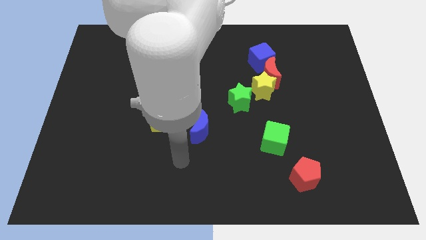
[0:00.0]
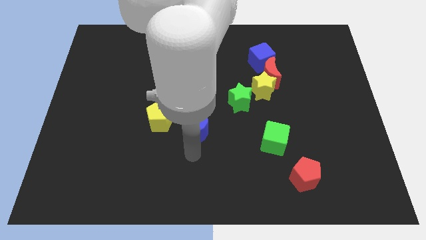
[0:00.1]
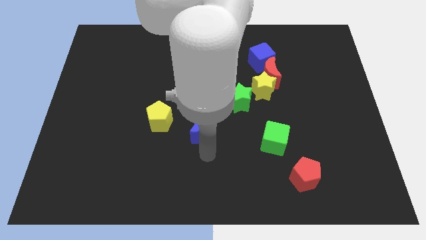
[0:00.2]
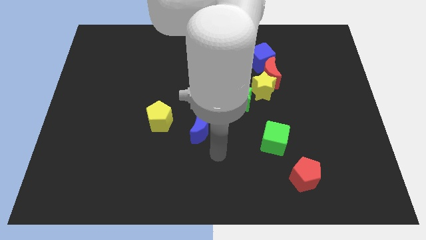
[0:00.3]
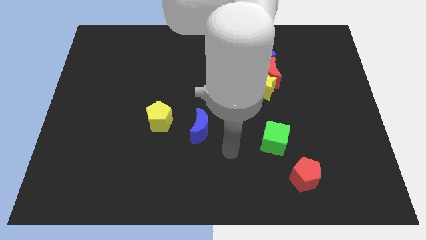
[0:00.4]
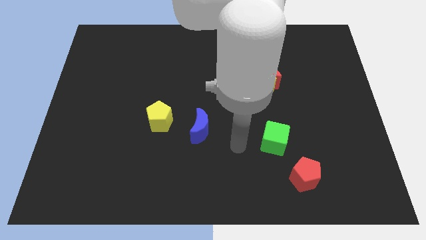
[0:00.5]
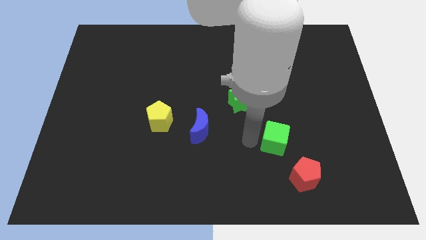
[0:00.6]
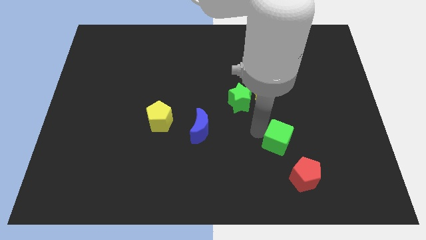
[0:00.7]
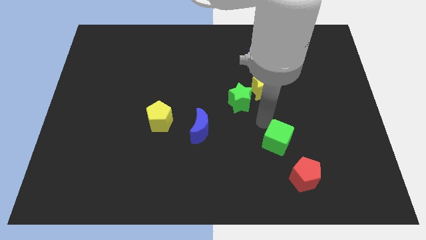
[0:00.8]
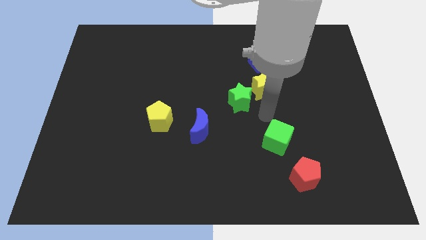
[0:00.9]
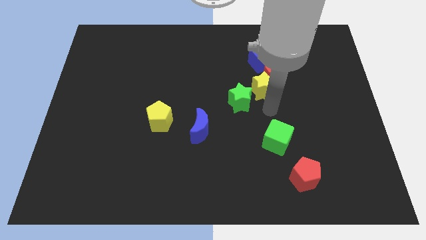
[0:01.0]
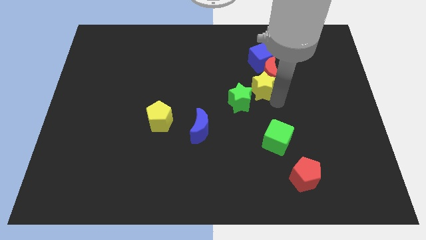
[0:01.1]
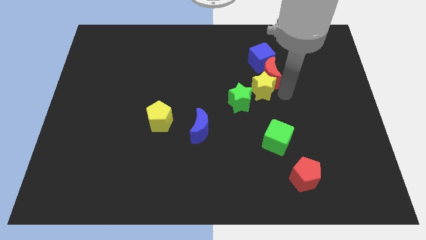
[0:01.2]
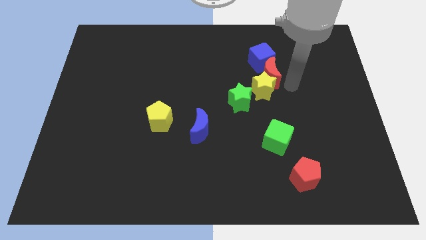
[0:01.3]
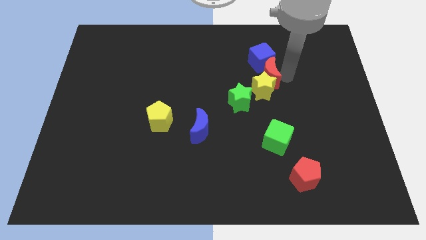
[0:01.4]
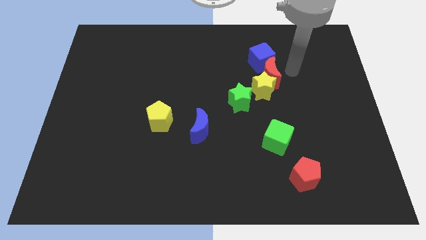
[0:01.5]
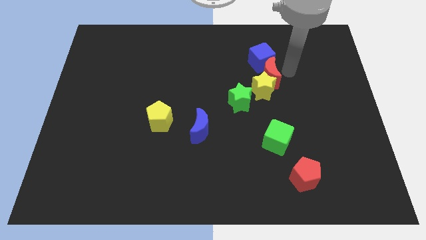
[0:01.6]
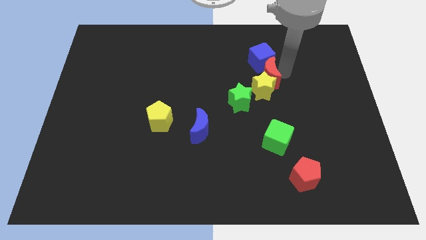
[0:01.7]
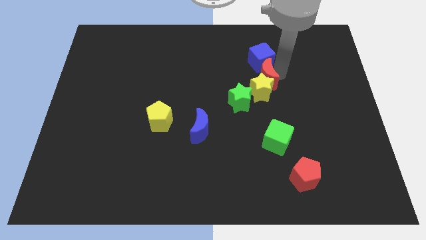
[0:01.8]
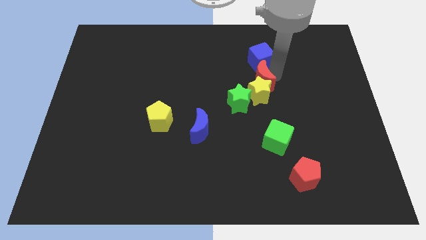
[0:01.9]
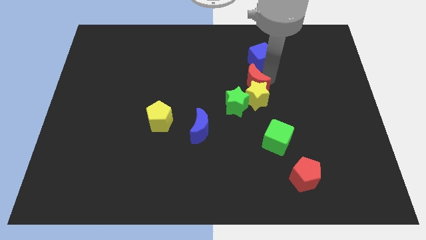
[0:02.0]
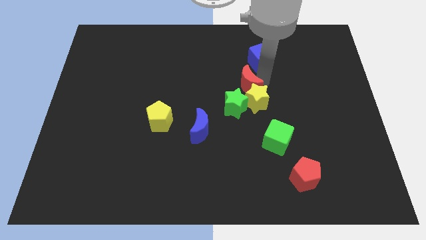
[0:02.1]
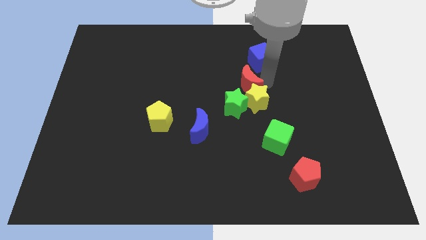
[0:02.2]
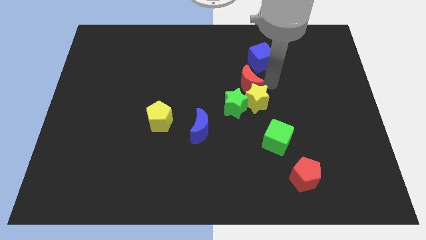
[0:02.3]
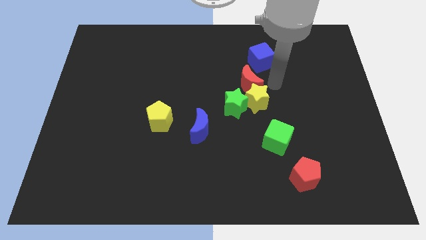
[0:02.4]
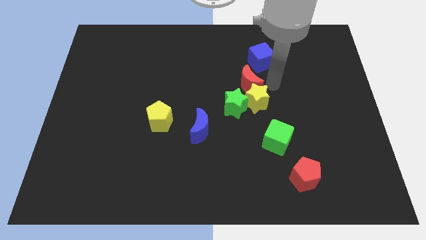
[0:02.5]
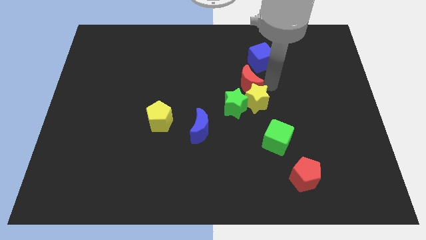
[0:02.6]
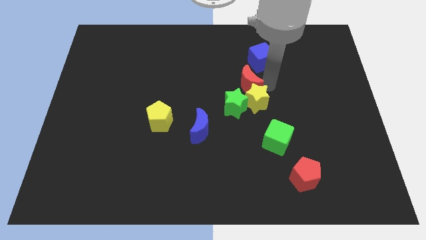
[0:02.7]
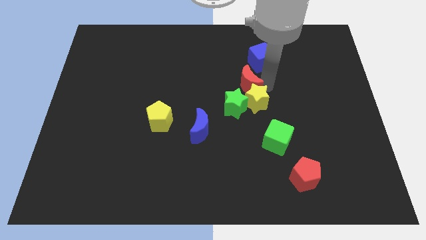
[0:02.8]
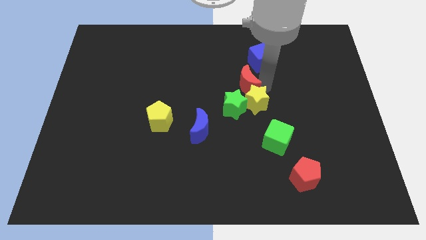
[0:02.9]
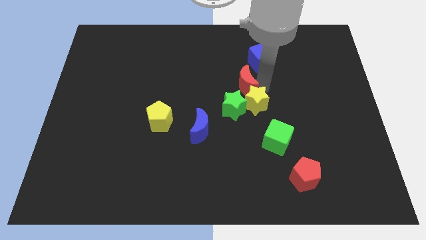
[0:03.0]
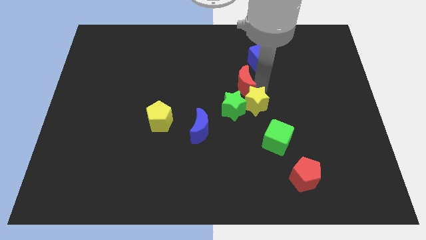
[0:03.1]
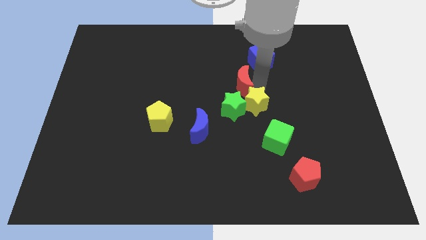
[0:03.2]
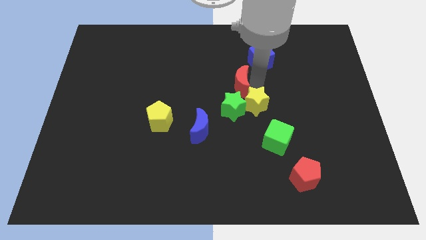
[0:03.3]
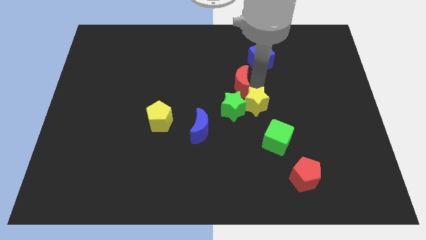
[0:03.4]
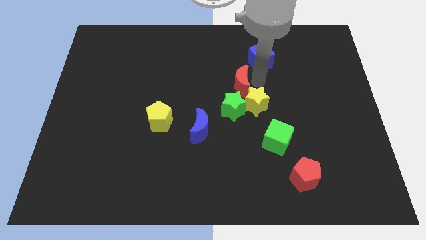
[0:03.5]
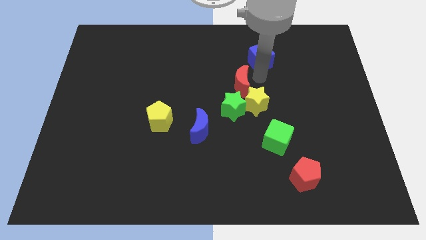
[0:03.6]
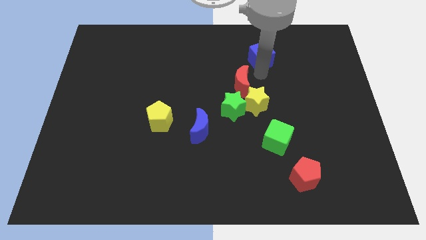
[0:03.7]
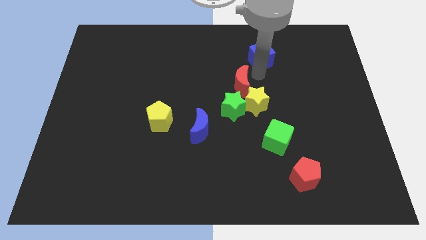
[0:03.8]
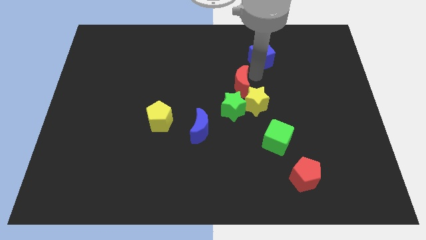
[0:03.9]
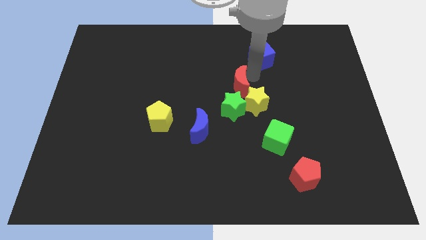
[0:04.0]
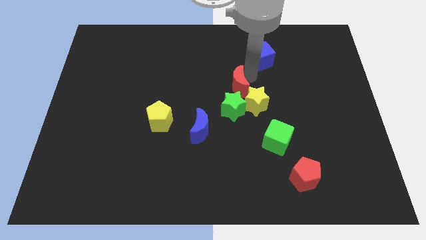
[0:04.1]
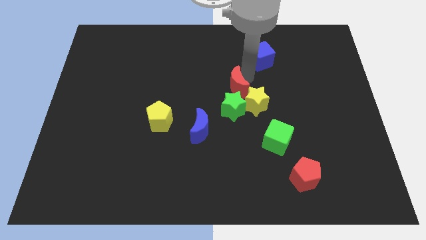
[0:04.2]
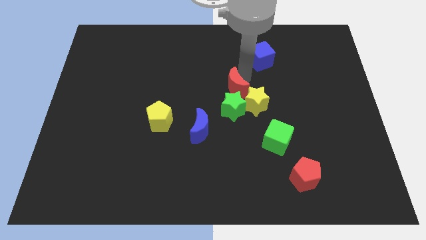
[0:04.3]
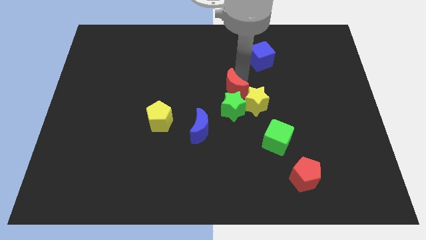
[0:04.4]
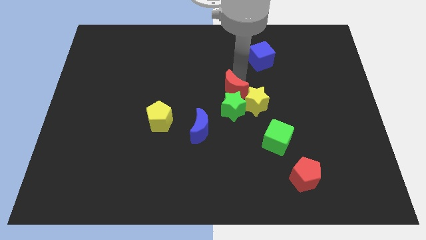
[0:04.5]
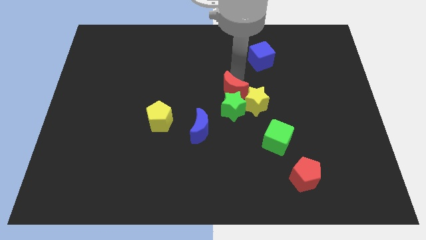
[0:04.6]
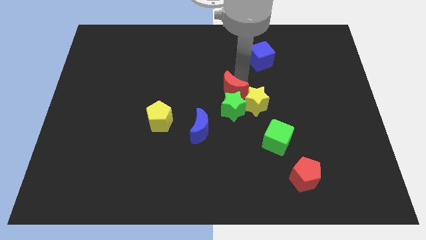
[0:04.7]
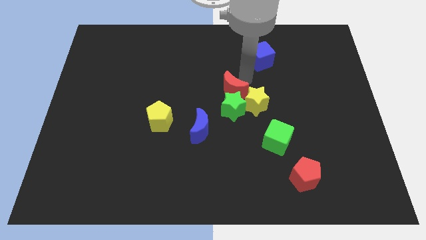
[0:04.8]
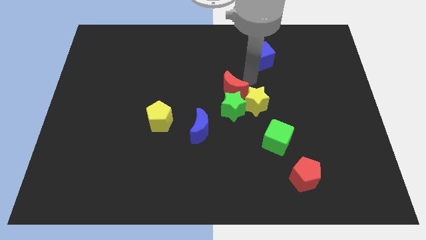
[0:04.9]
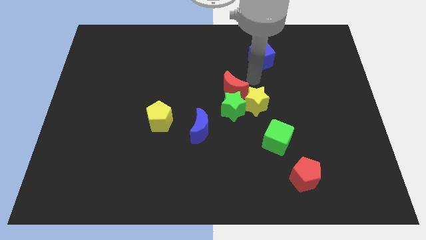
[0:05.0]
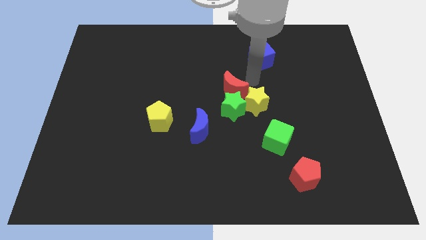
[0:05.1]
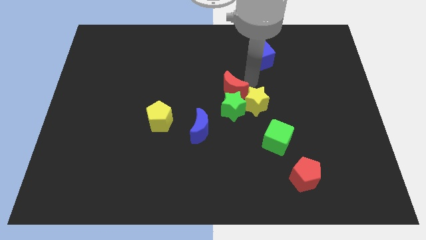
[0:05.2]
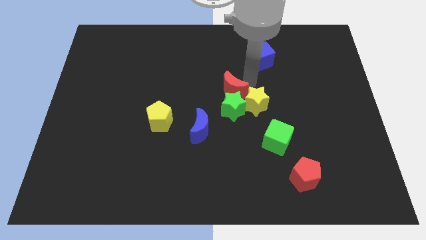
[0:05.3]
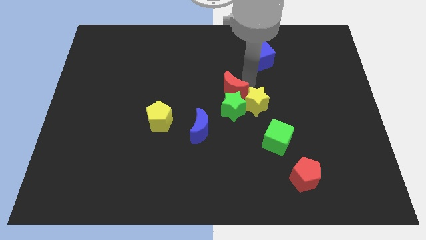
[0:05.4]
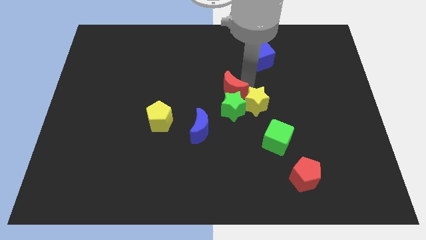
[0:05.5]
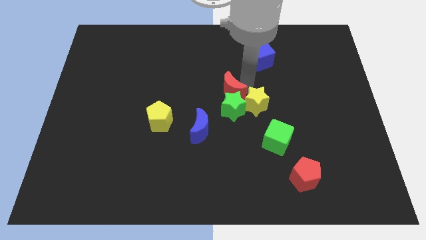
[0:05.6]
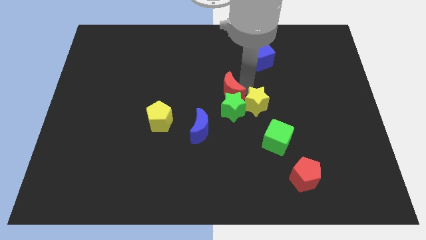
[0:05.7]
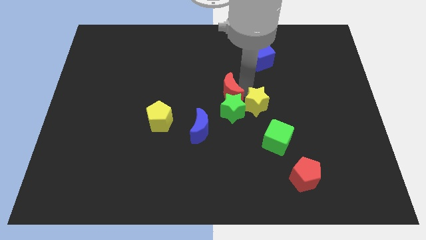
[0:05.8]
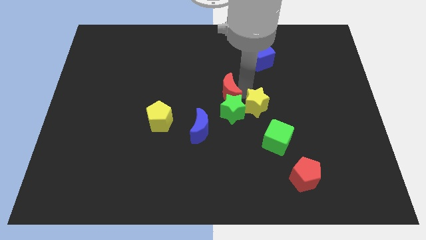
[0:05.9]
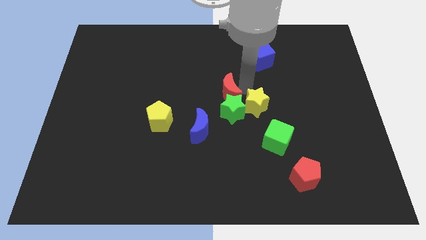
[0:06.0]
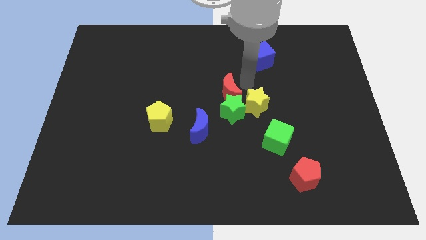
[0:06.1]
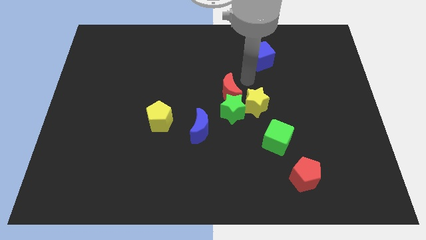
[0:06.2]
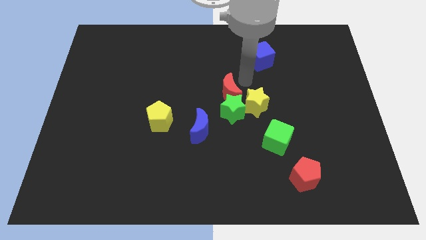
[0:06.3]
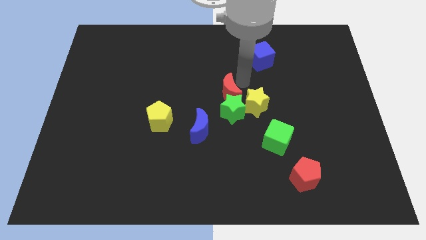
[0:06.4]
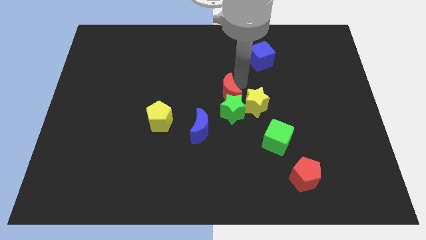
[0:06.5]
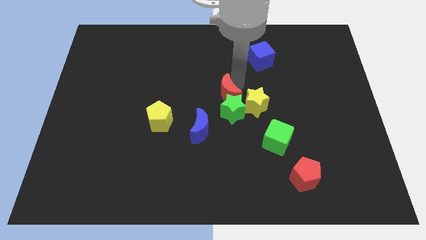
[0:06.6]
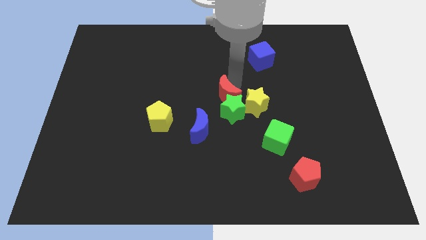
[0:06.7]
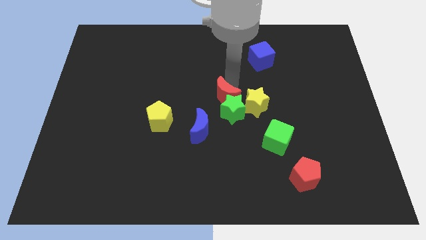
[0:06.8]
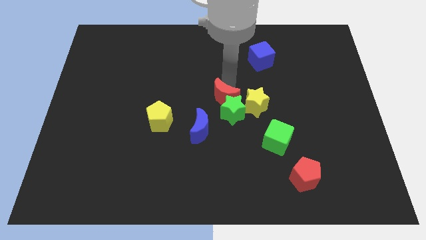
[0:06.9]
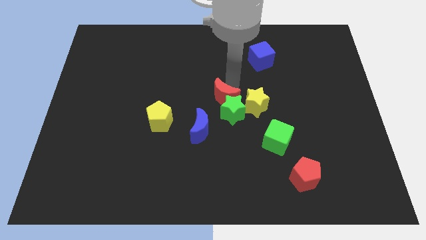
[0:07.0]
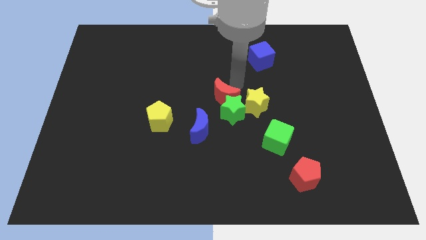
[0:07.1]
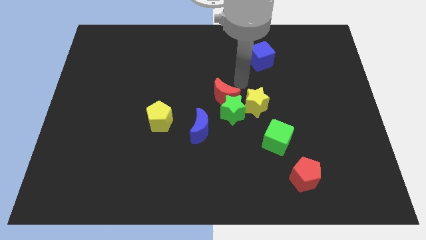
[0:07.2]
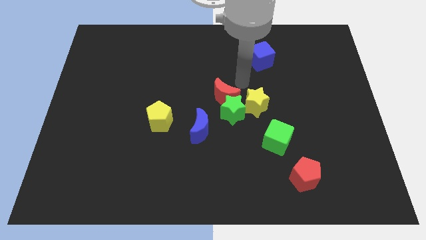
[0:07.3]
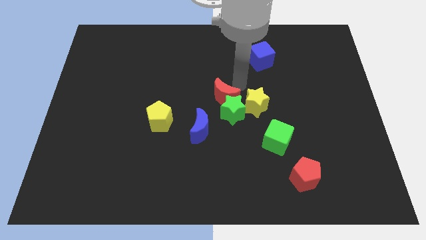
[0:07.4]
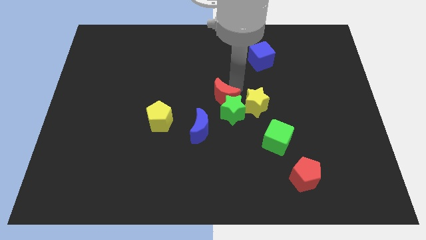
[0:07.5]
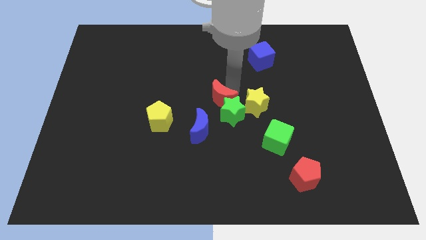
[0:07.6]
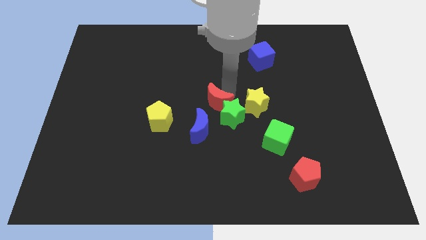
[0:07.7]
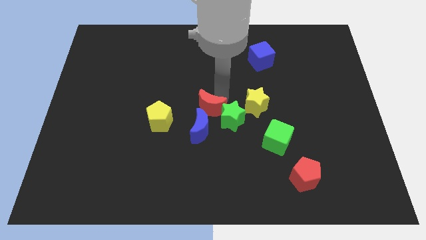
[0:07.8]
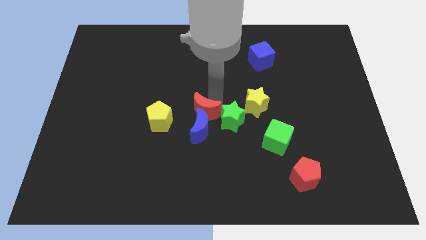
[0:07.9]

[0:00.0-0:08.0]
push the red moon close to the blue moon
